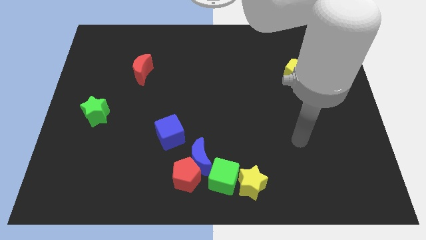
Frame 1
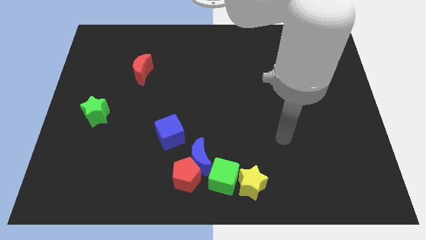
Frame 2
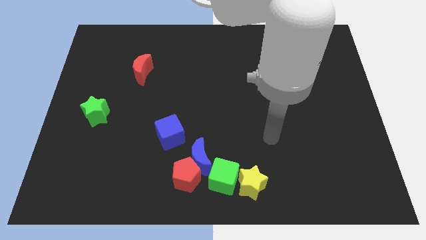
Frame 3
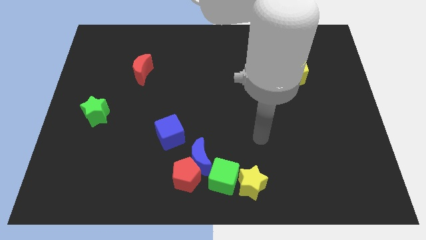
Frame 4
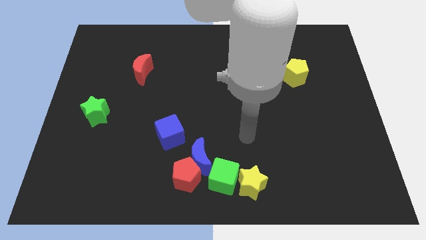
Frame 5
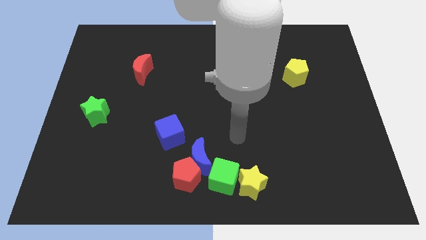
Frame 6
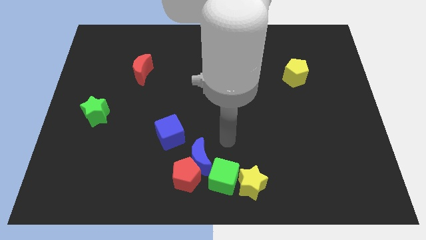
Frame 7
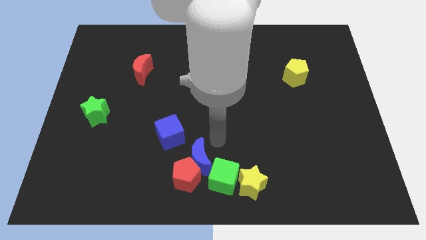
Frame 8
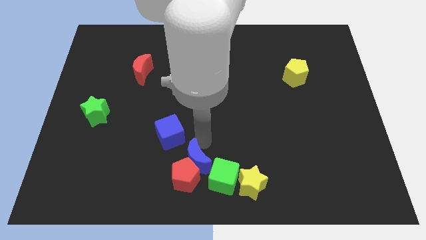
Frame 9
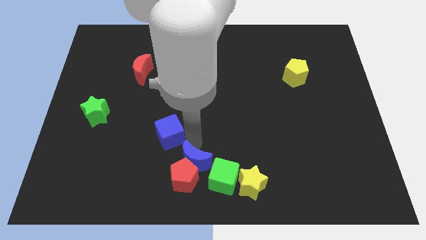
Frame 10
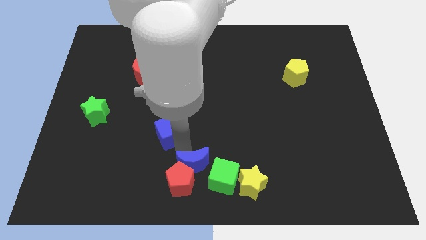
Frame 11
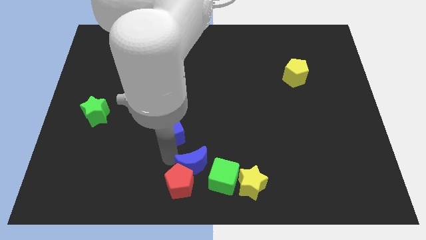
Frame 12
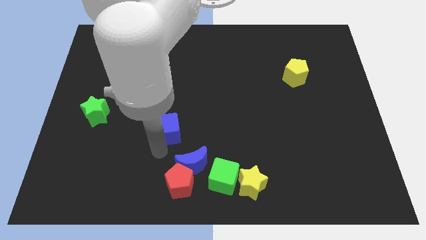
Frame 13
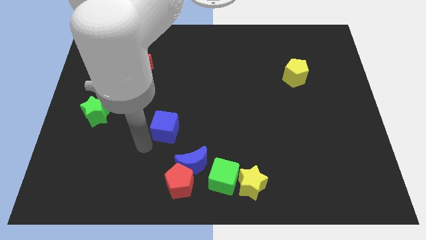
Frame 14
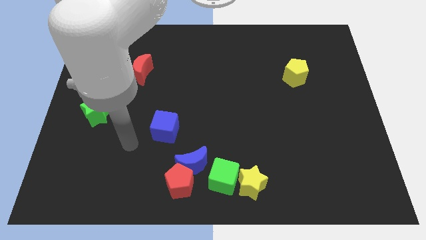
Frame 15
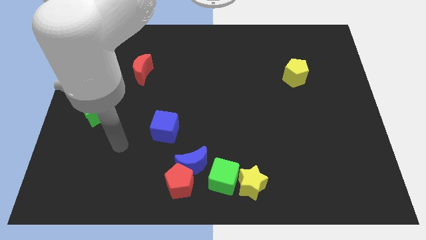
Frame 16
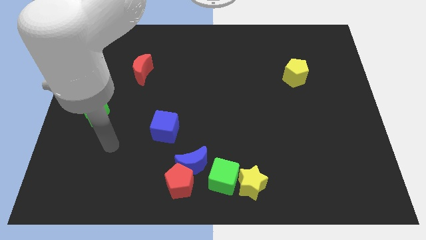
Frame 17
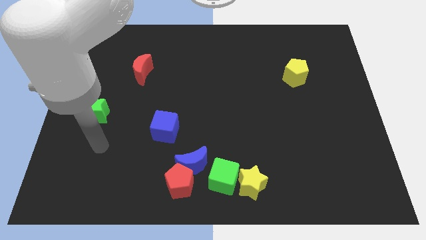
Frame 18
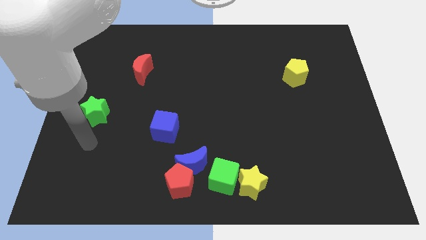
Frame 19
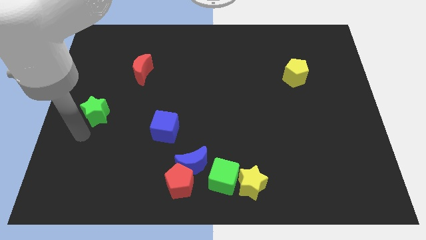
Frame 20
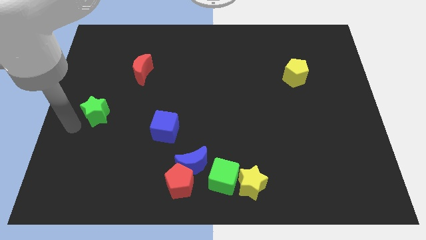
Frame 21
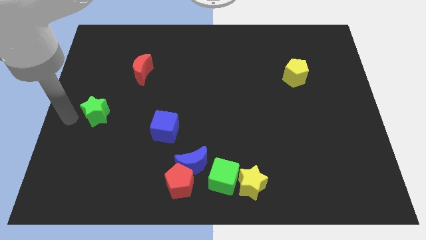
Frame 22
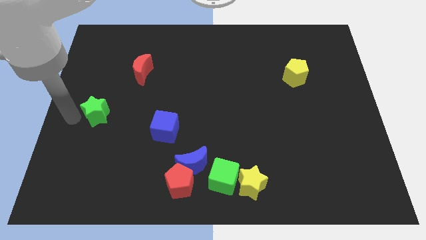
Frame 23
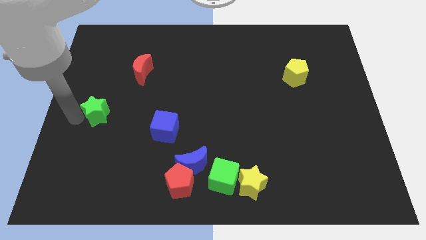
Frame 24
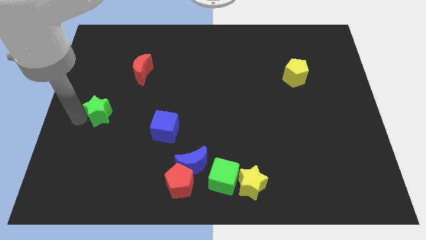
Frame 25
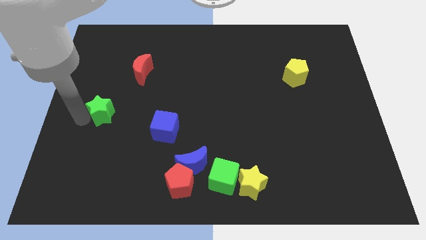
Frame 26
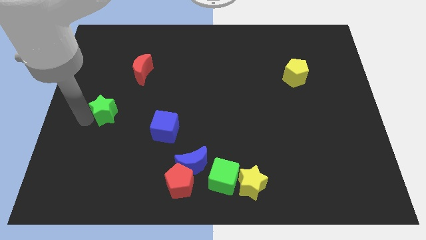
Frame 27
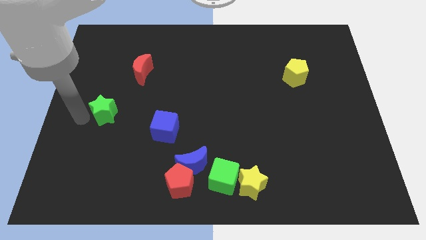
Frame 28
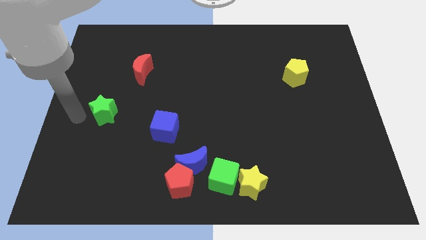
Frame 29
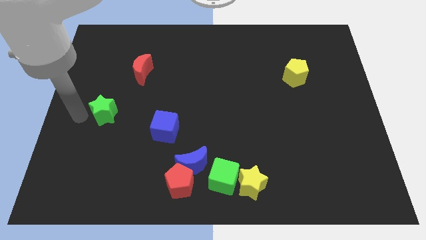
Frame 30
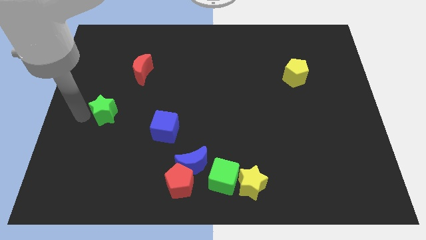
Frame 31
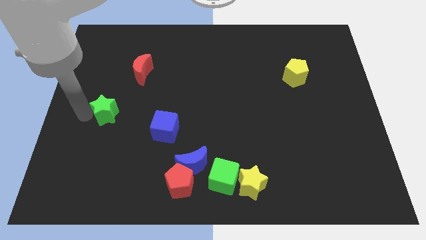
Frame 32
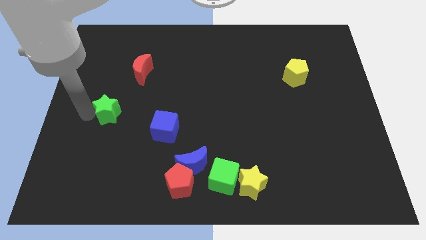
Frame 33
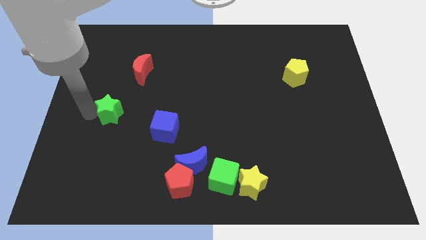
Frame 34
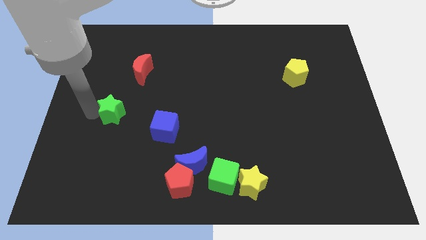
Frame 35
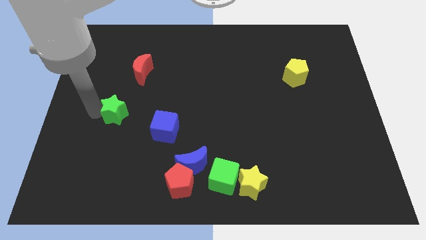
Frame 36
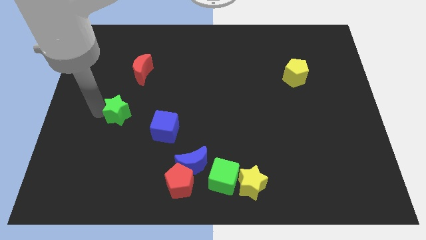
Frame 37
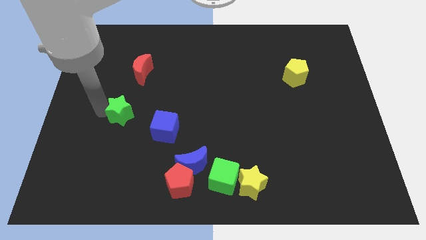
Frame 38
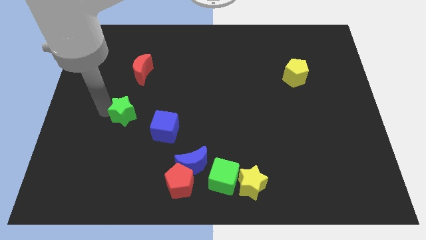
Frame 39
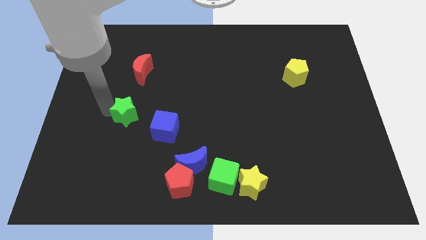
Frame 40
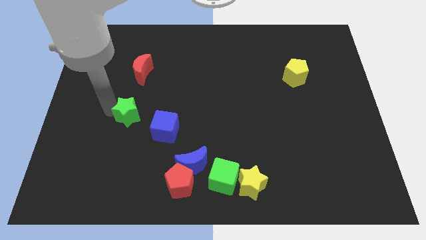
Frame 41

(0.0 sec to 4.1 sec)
slide the green star to the right somewhat

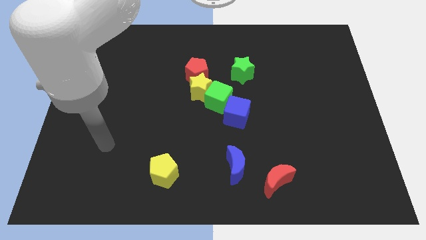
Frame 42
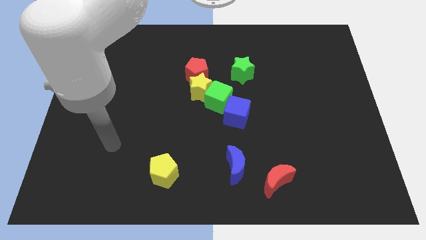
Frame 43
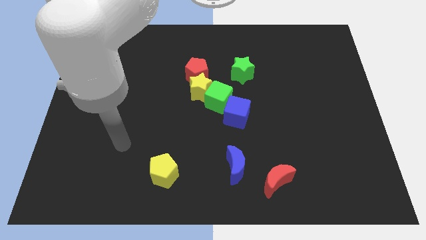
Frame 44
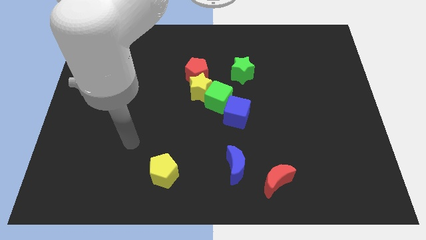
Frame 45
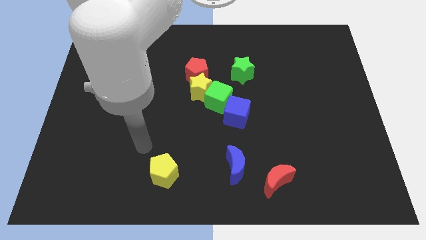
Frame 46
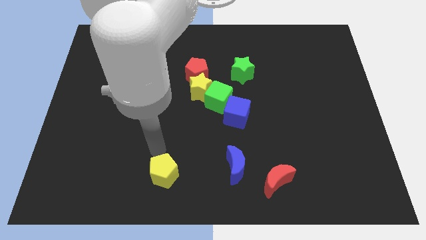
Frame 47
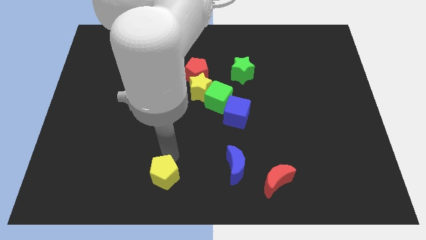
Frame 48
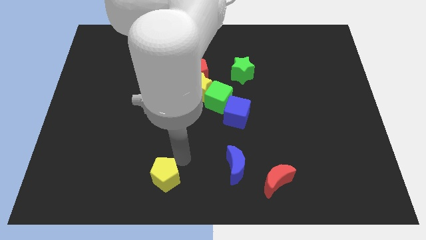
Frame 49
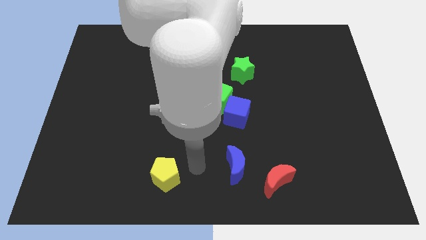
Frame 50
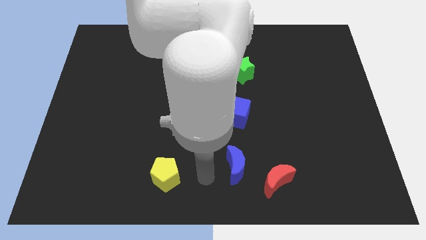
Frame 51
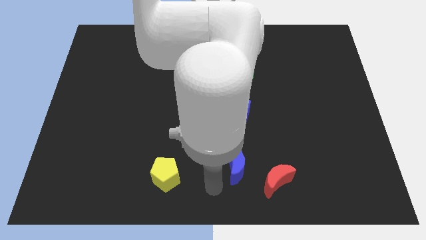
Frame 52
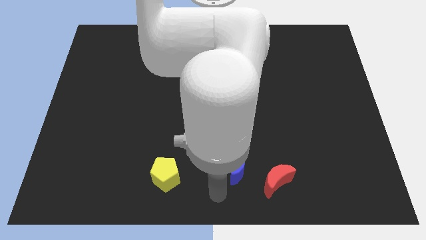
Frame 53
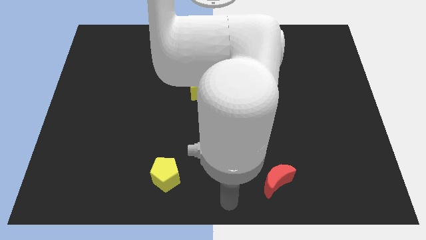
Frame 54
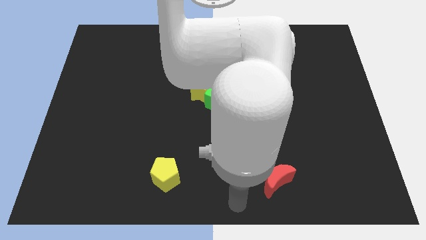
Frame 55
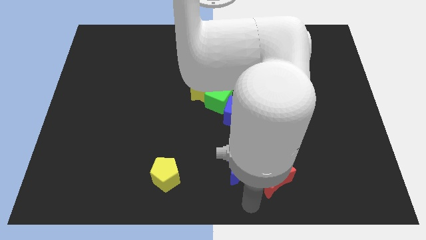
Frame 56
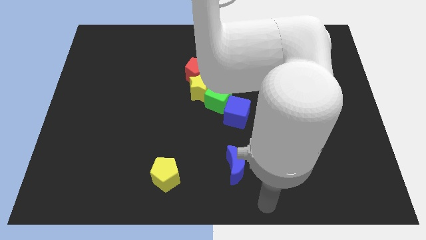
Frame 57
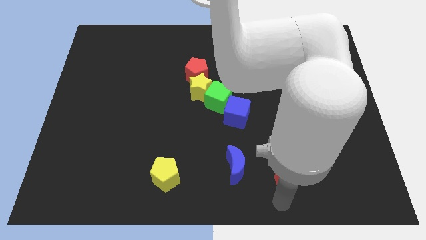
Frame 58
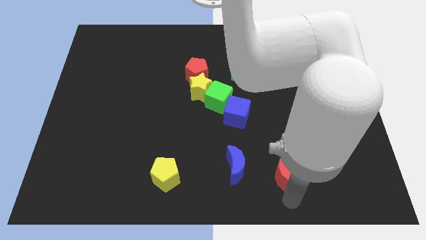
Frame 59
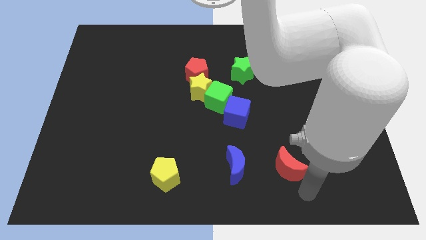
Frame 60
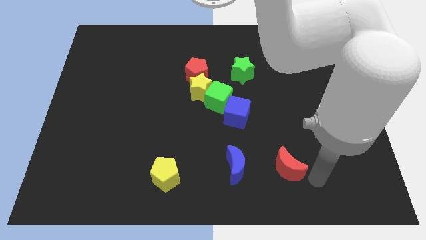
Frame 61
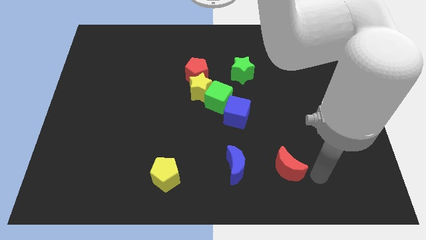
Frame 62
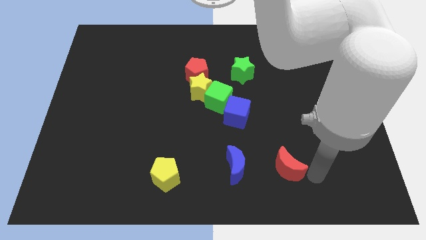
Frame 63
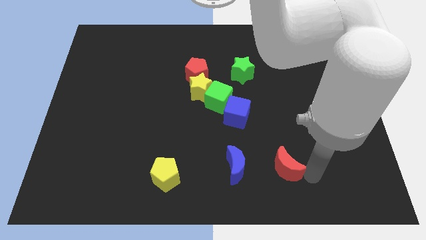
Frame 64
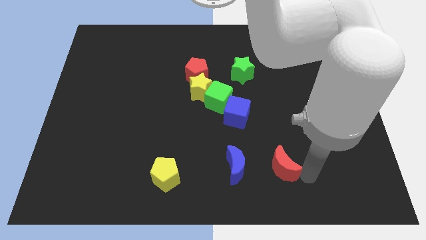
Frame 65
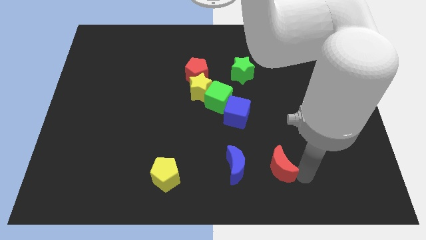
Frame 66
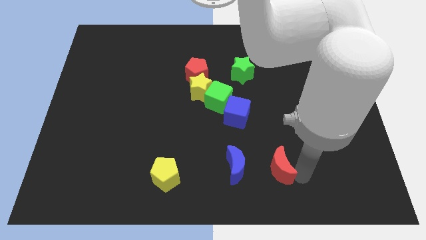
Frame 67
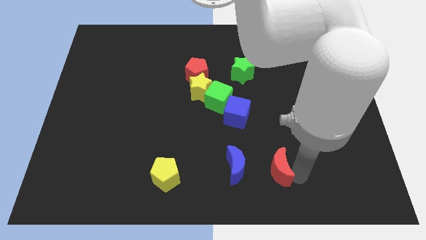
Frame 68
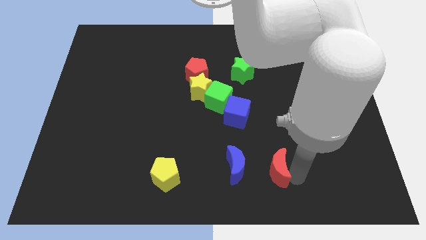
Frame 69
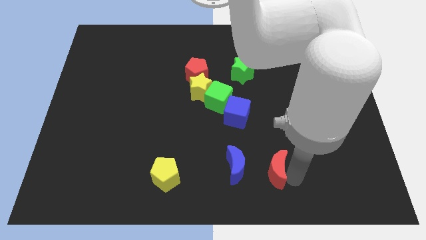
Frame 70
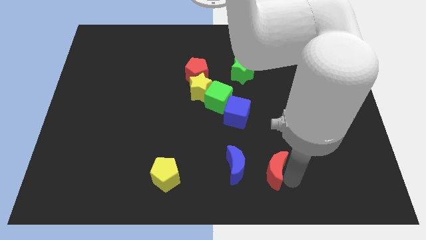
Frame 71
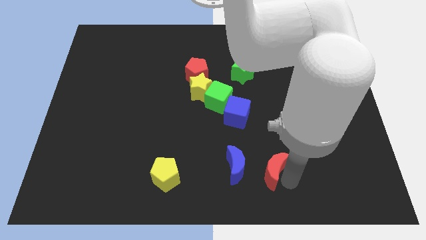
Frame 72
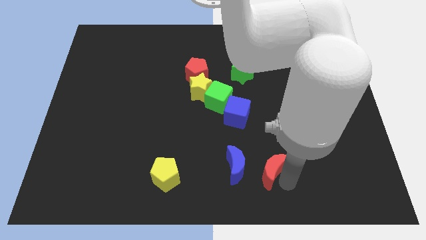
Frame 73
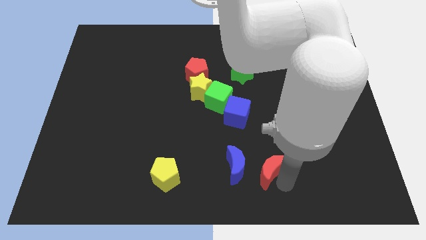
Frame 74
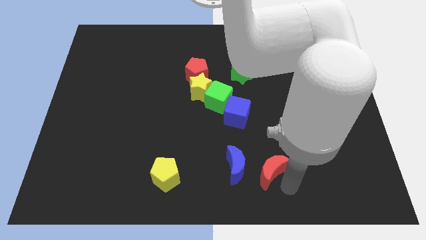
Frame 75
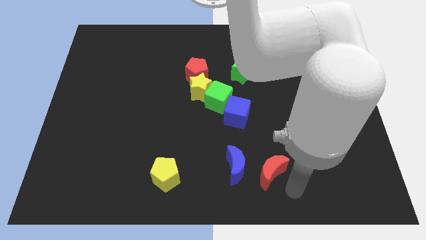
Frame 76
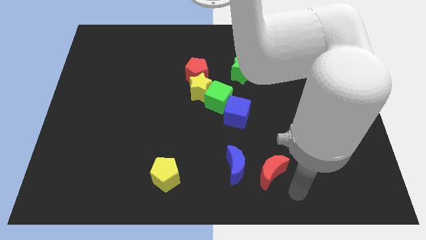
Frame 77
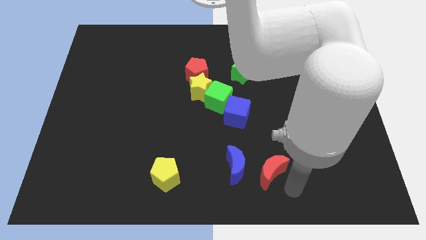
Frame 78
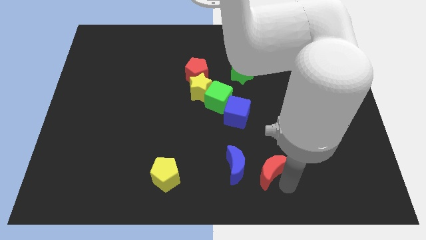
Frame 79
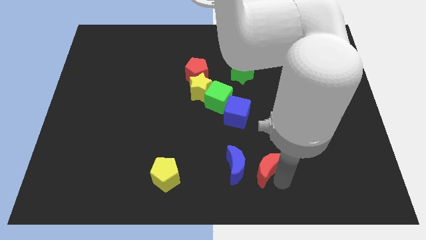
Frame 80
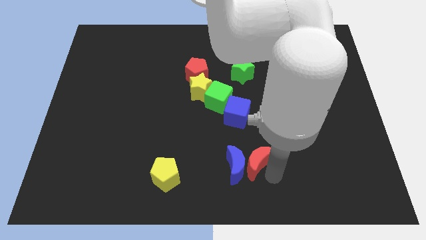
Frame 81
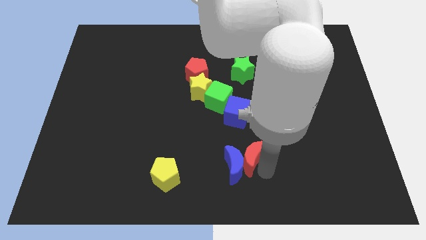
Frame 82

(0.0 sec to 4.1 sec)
slightly slide the red moon diagonally upwards and left
